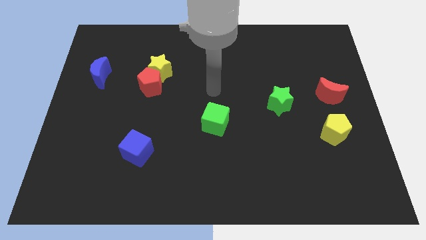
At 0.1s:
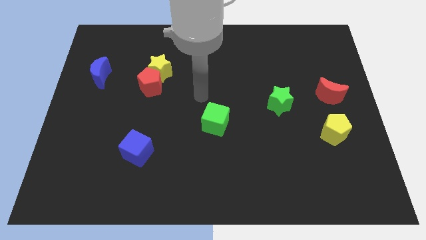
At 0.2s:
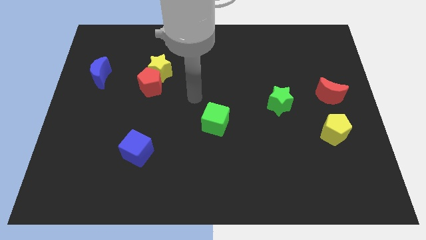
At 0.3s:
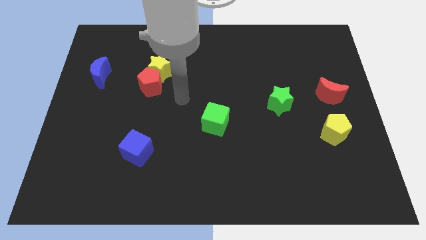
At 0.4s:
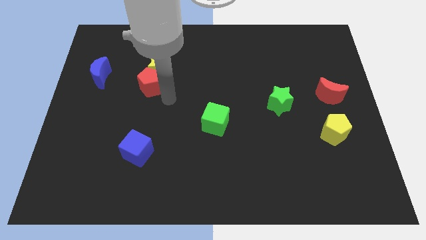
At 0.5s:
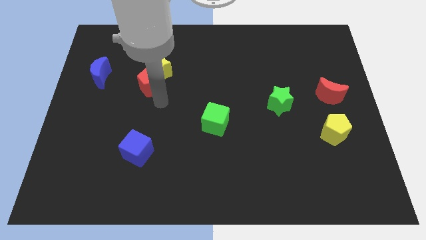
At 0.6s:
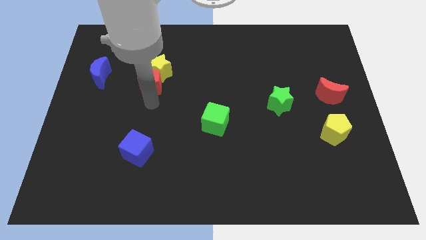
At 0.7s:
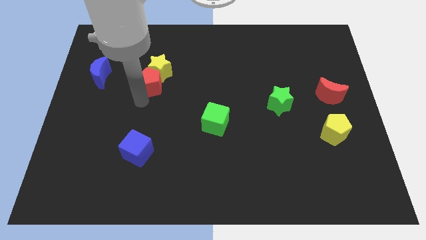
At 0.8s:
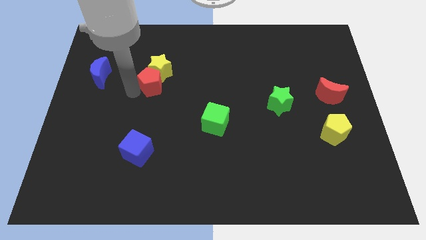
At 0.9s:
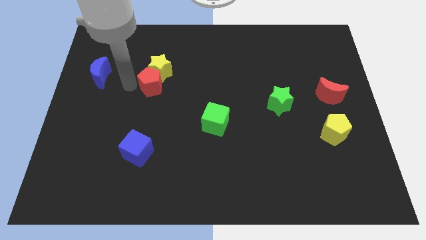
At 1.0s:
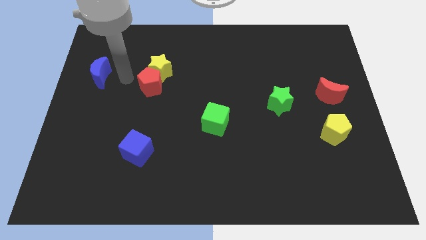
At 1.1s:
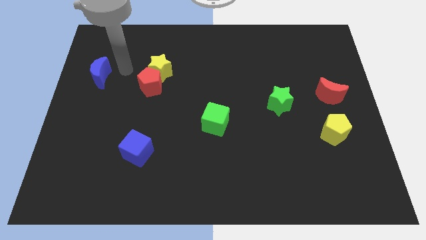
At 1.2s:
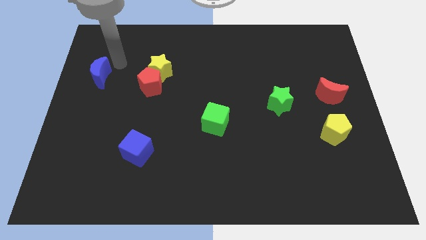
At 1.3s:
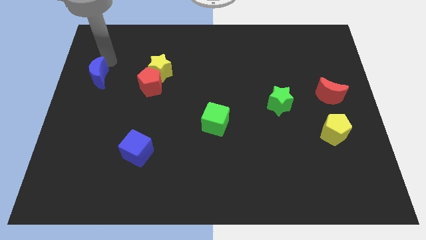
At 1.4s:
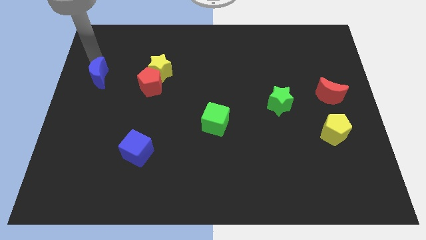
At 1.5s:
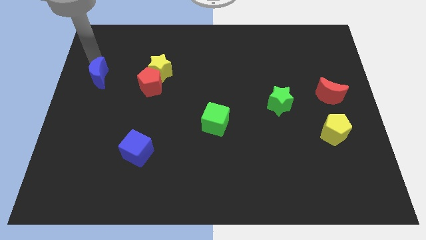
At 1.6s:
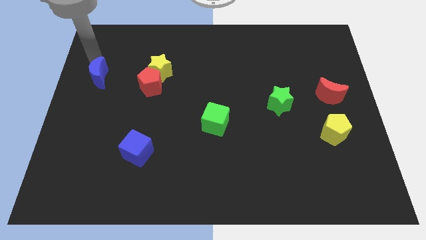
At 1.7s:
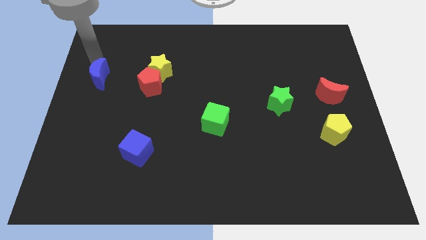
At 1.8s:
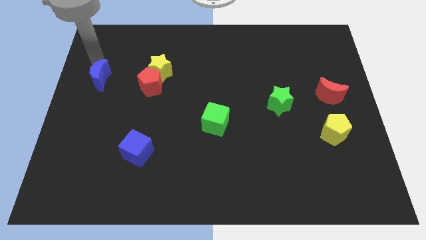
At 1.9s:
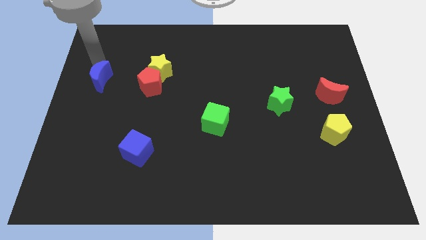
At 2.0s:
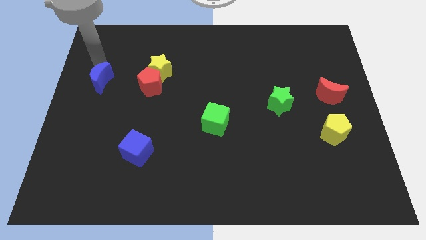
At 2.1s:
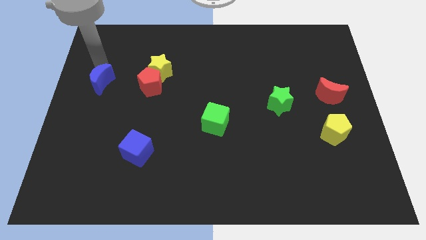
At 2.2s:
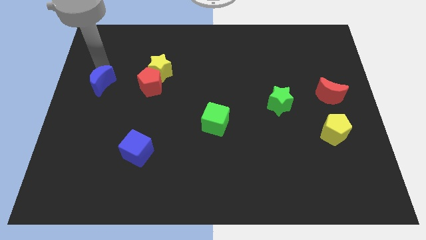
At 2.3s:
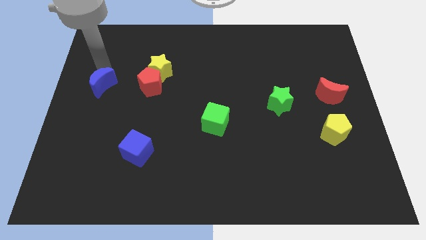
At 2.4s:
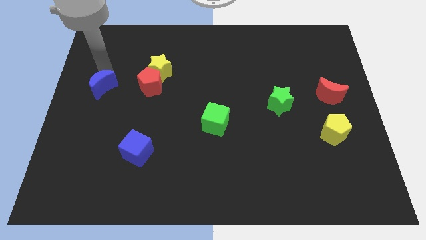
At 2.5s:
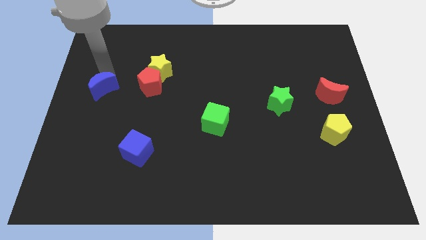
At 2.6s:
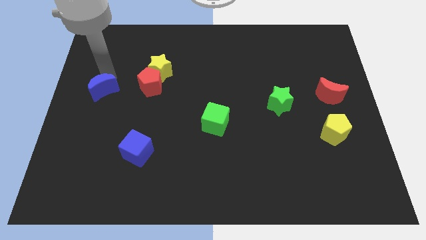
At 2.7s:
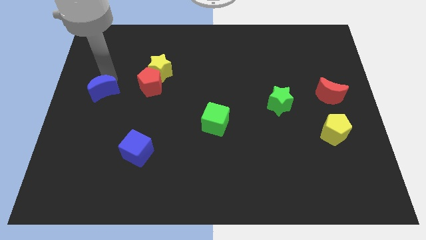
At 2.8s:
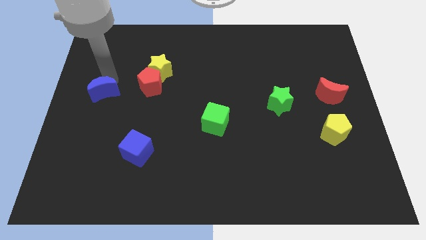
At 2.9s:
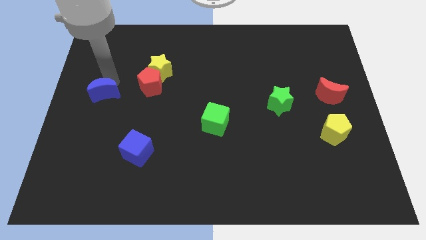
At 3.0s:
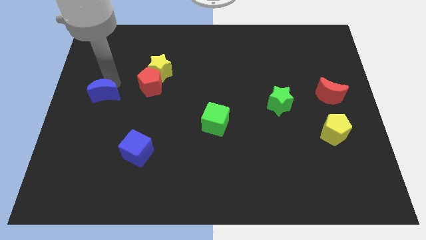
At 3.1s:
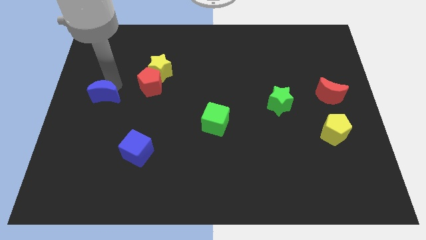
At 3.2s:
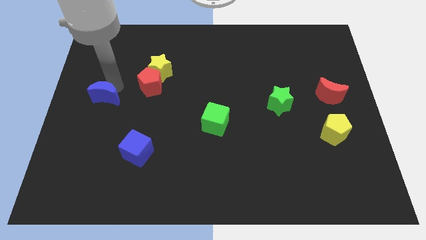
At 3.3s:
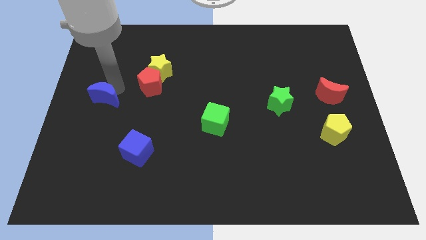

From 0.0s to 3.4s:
slightly push the blue moon downwards

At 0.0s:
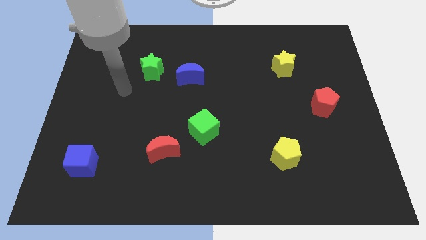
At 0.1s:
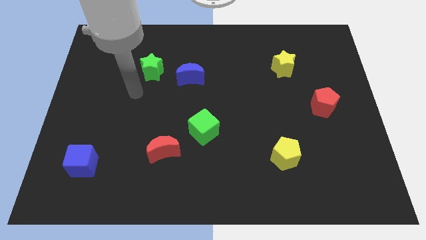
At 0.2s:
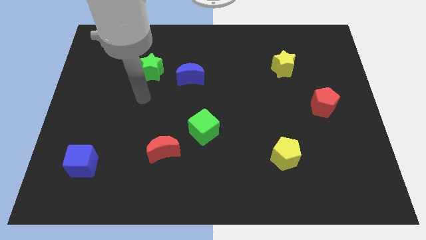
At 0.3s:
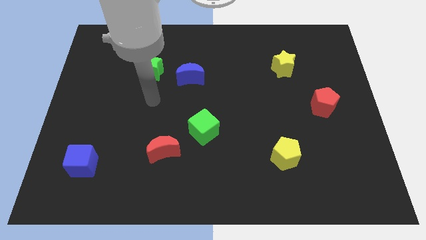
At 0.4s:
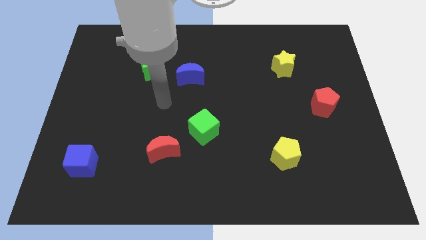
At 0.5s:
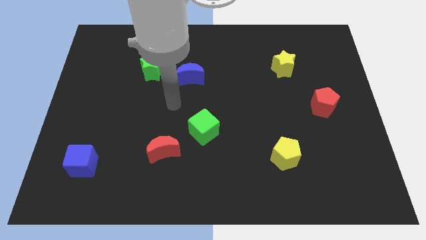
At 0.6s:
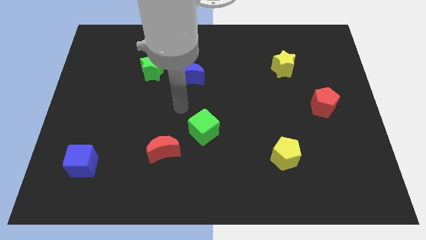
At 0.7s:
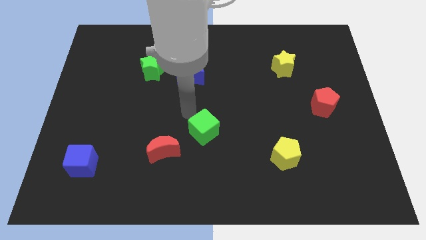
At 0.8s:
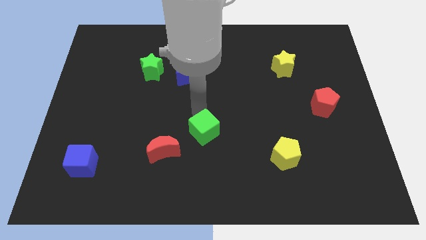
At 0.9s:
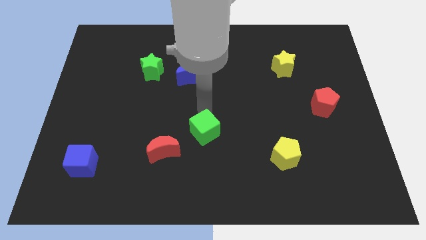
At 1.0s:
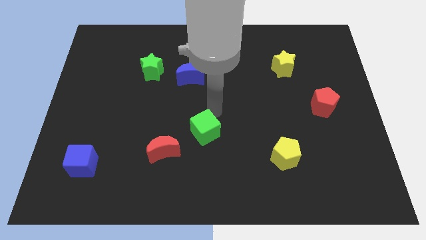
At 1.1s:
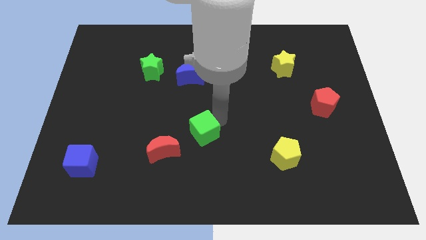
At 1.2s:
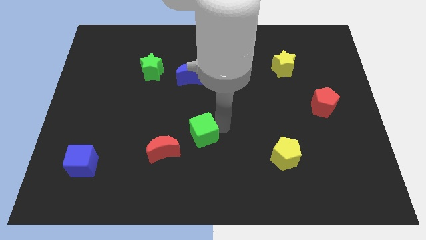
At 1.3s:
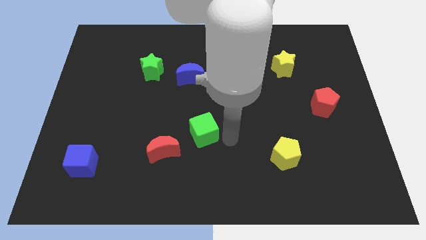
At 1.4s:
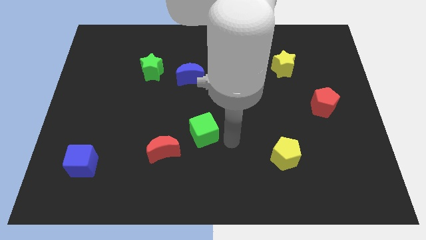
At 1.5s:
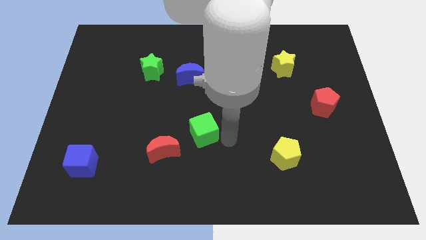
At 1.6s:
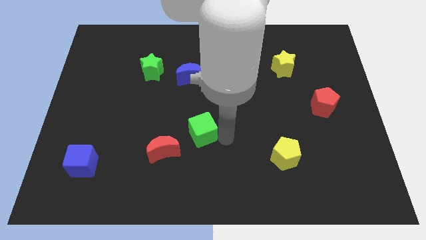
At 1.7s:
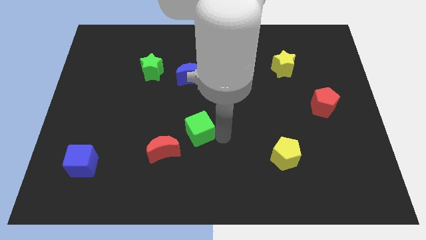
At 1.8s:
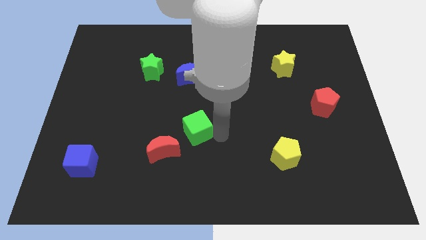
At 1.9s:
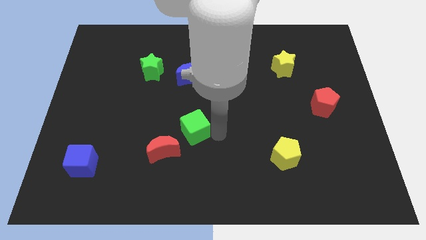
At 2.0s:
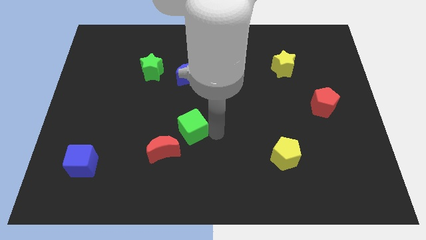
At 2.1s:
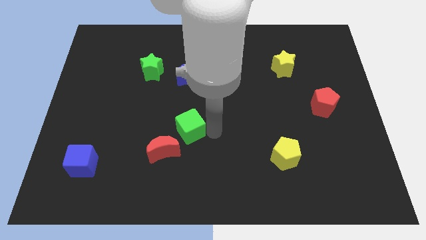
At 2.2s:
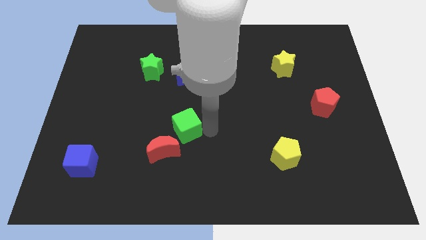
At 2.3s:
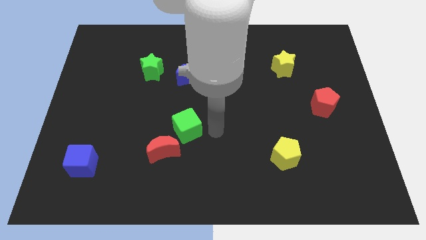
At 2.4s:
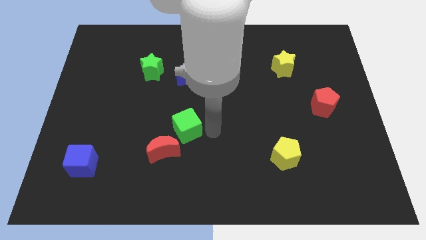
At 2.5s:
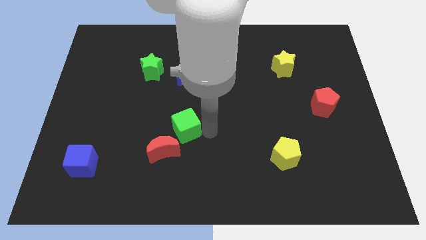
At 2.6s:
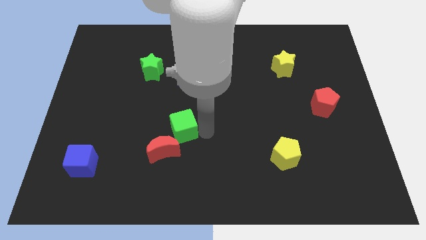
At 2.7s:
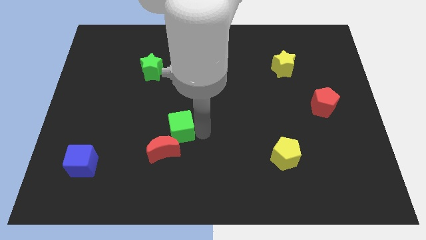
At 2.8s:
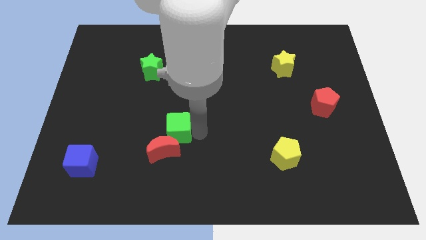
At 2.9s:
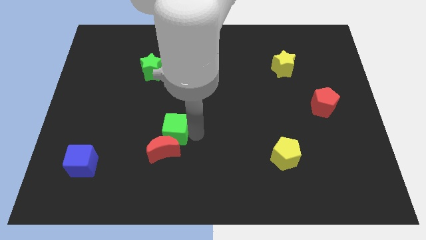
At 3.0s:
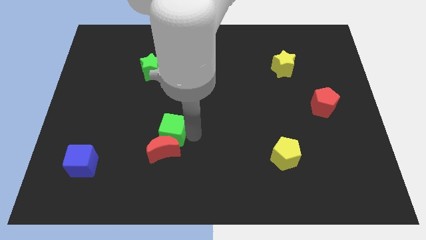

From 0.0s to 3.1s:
move the green cube slightly to the left

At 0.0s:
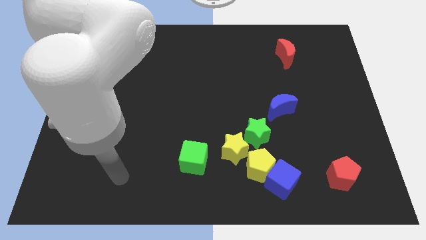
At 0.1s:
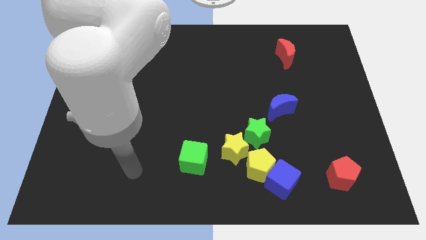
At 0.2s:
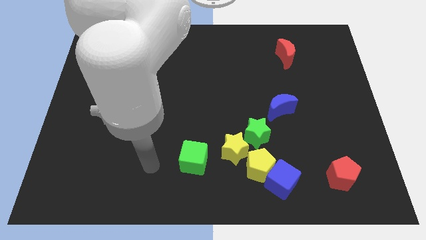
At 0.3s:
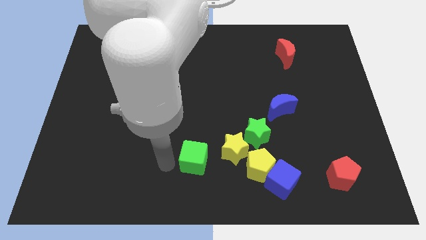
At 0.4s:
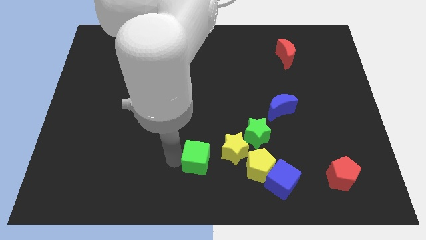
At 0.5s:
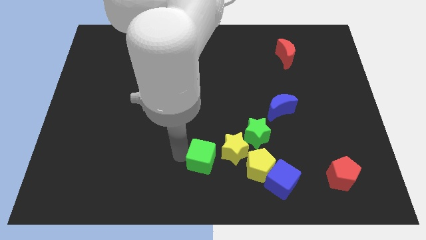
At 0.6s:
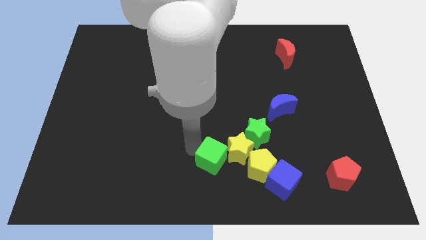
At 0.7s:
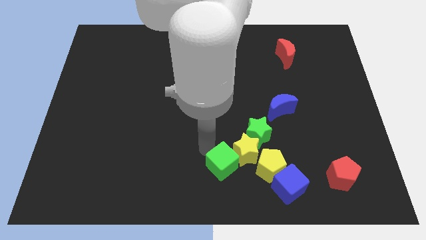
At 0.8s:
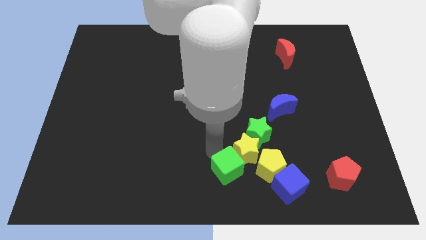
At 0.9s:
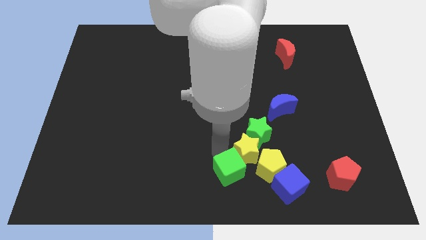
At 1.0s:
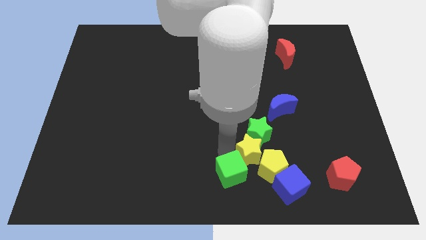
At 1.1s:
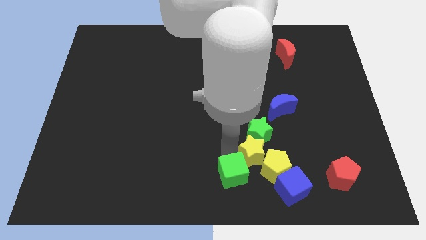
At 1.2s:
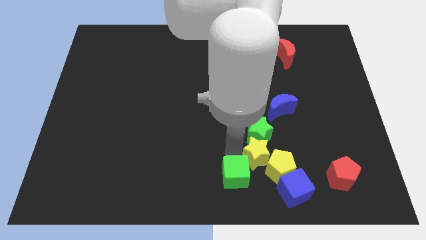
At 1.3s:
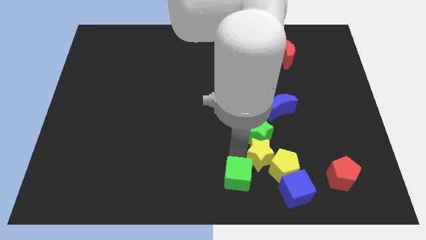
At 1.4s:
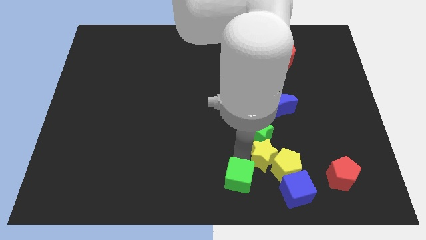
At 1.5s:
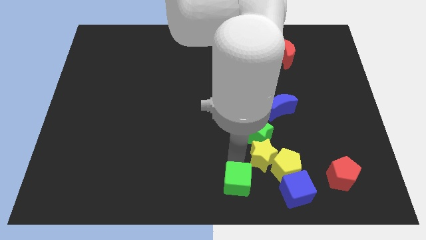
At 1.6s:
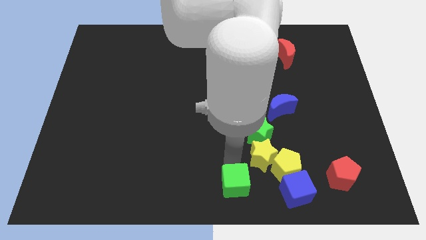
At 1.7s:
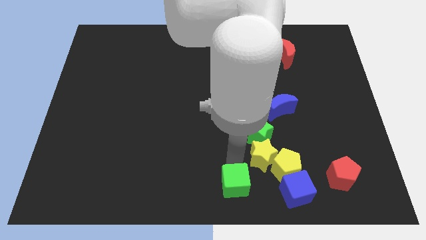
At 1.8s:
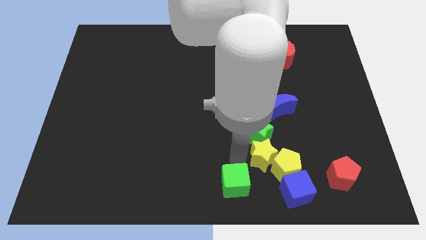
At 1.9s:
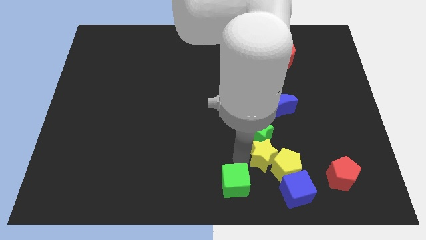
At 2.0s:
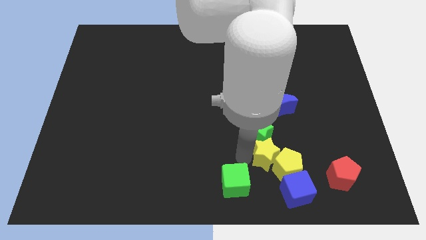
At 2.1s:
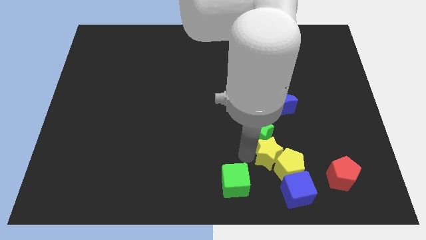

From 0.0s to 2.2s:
slide the yellow star right a little bit
